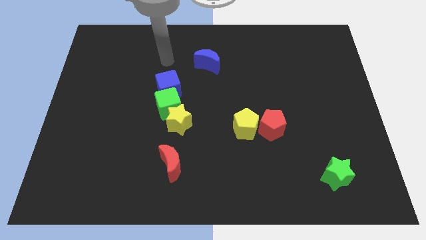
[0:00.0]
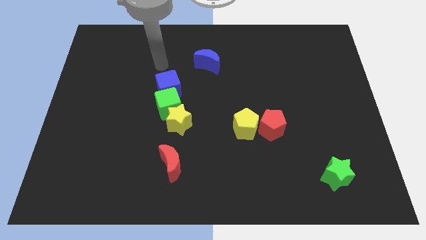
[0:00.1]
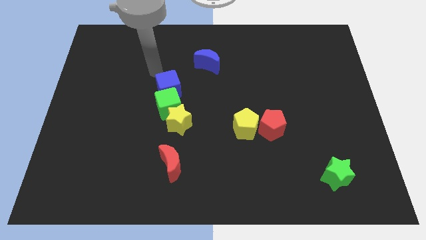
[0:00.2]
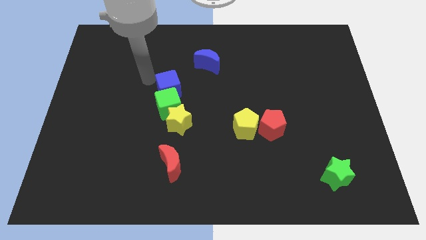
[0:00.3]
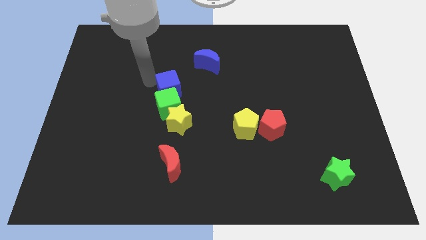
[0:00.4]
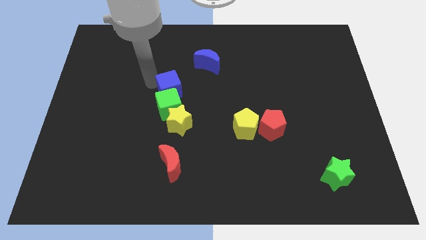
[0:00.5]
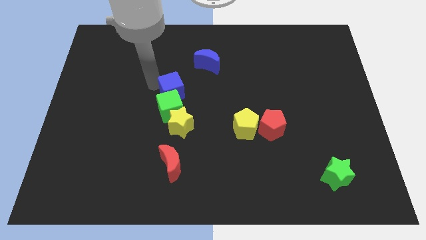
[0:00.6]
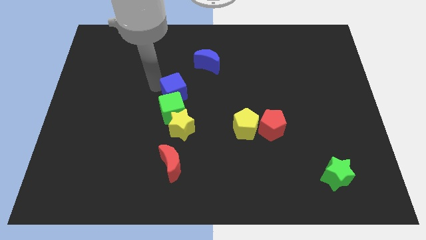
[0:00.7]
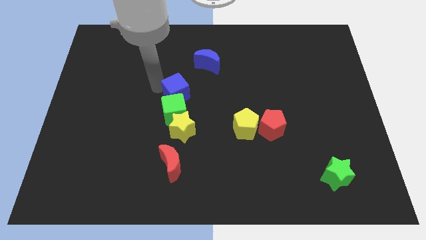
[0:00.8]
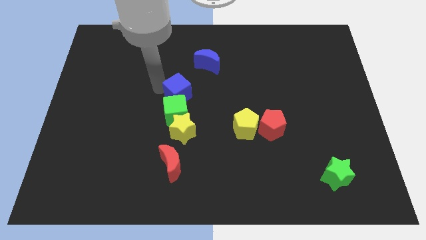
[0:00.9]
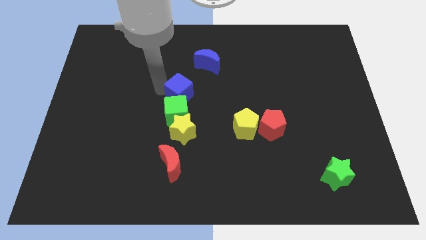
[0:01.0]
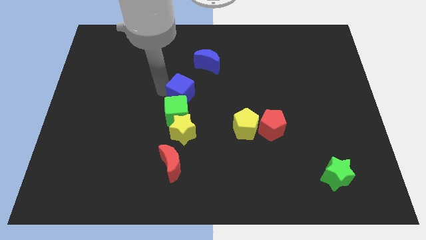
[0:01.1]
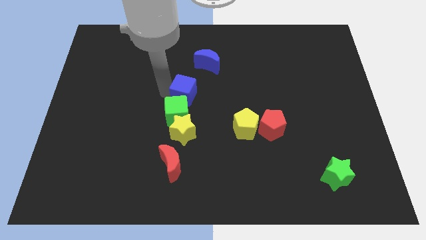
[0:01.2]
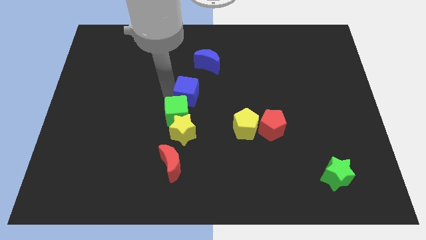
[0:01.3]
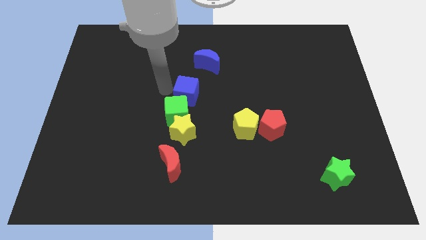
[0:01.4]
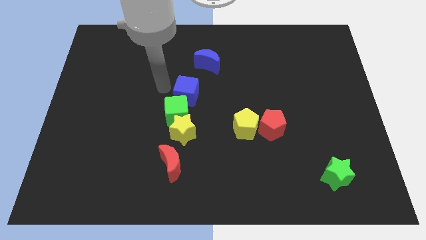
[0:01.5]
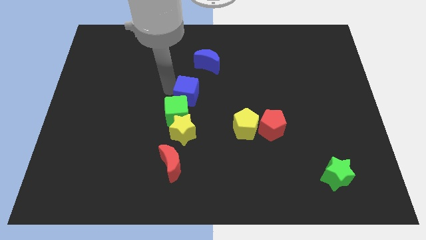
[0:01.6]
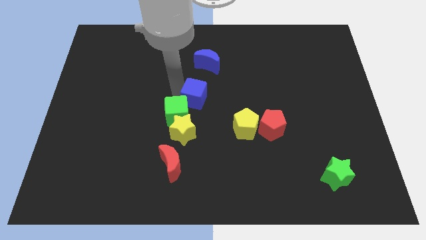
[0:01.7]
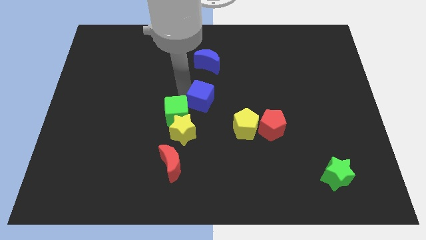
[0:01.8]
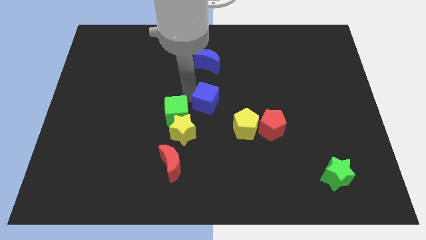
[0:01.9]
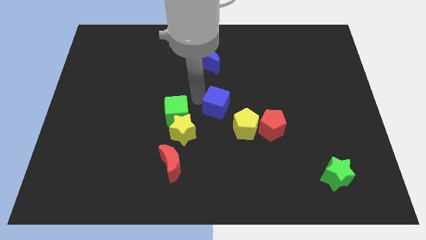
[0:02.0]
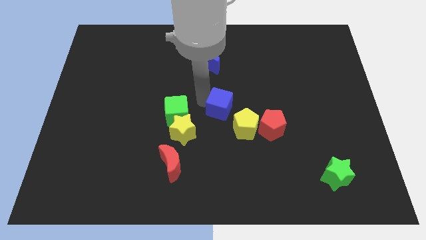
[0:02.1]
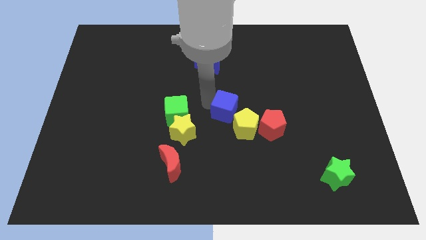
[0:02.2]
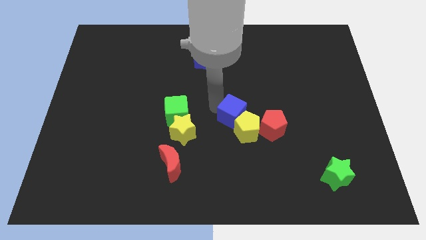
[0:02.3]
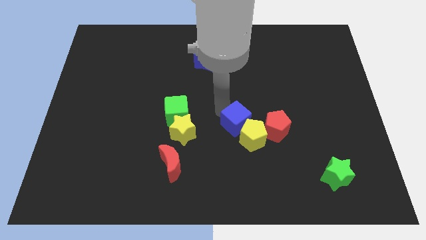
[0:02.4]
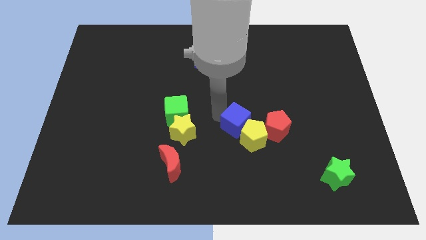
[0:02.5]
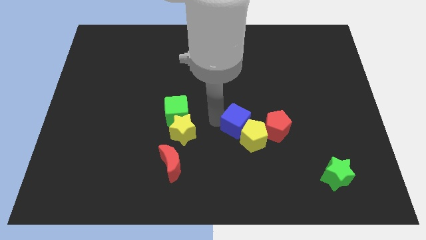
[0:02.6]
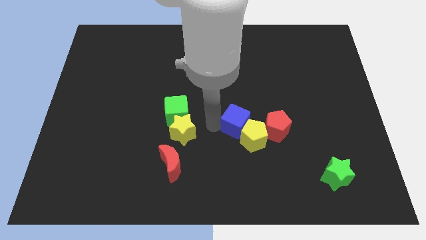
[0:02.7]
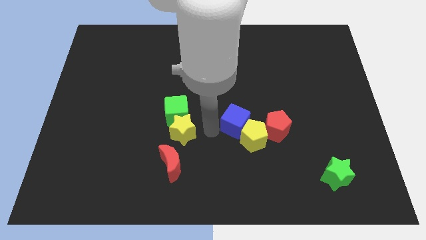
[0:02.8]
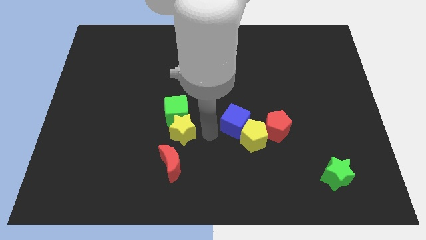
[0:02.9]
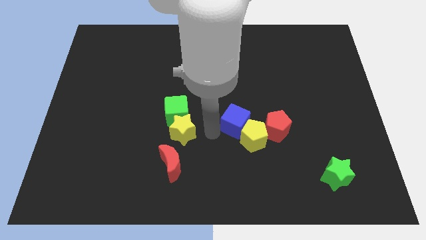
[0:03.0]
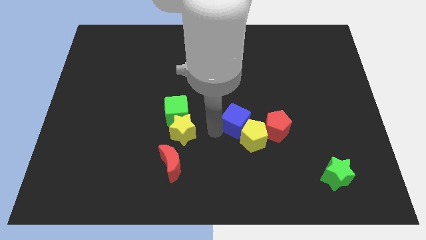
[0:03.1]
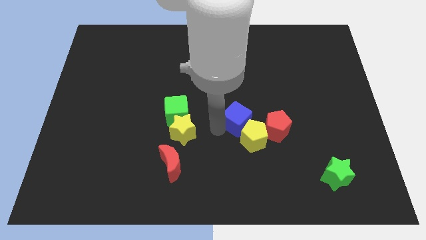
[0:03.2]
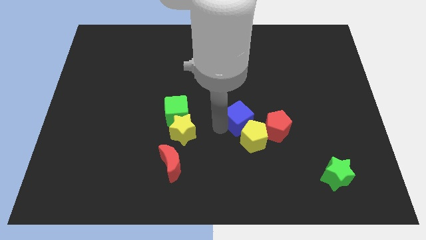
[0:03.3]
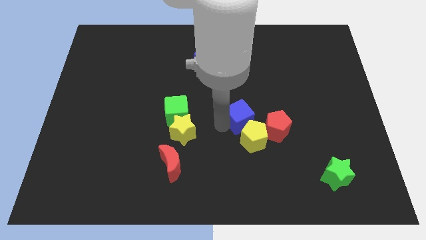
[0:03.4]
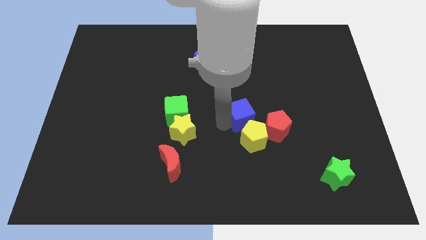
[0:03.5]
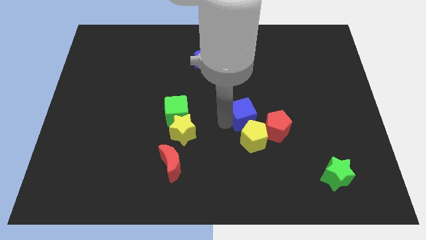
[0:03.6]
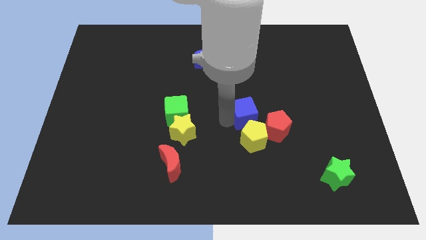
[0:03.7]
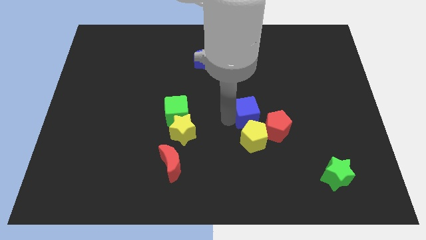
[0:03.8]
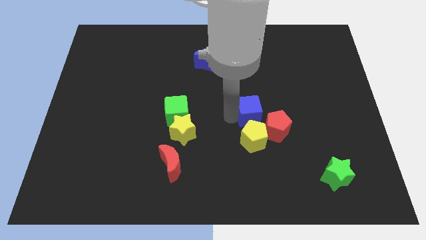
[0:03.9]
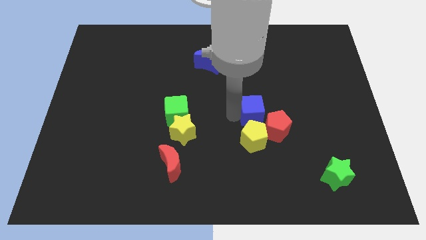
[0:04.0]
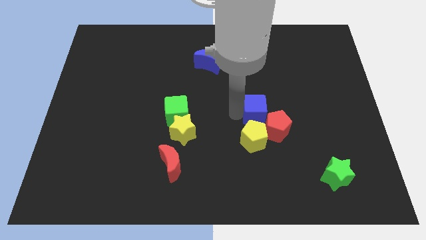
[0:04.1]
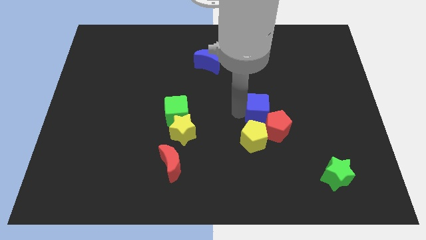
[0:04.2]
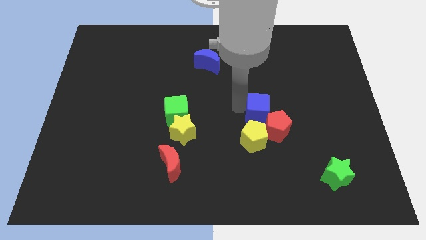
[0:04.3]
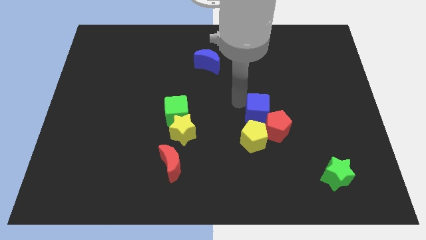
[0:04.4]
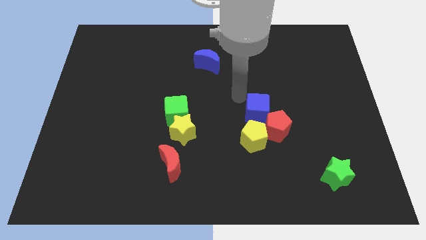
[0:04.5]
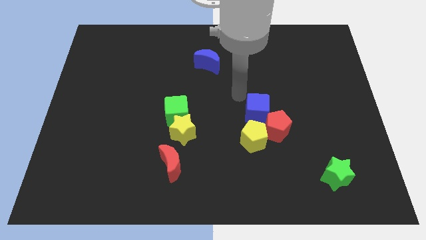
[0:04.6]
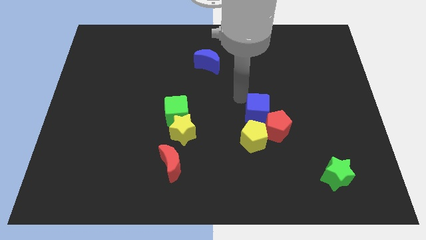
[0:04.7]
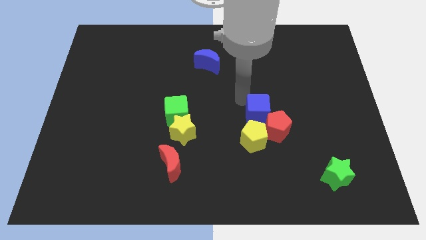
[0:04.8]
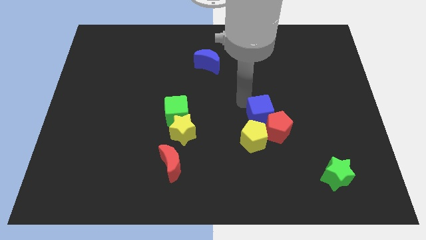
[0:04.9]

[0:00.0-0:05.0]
put the blue cube to the red pentagon

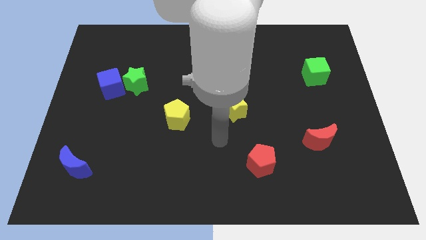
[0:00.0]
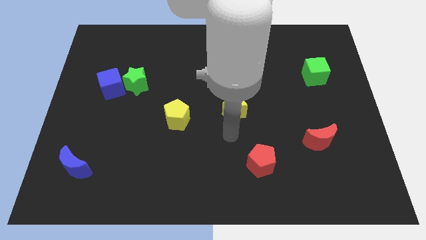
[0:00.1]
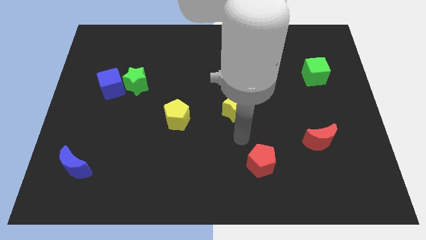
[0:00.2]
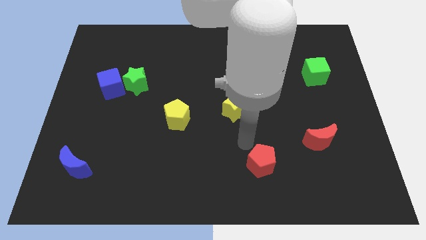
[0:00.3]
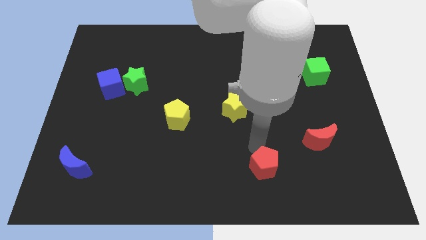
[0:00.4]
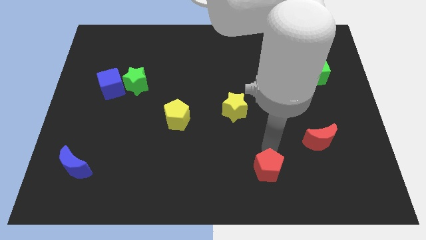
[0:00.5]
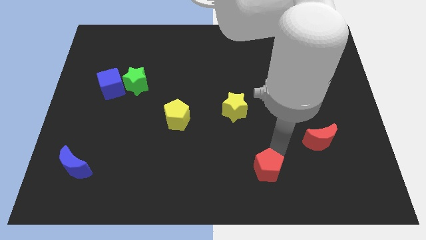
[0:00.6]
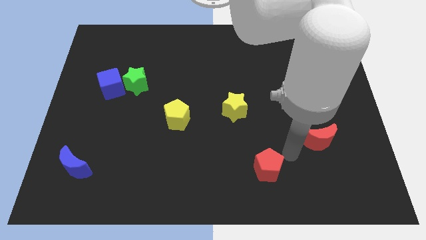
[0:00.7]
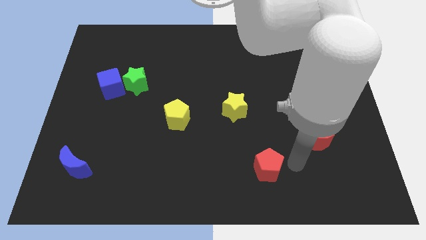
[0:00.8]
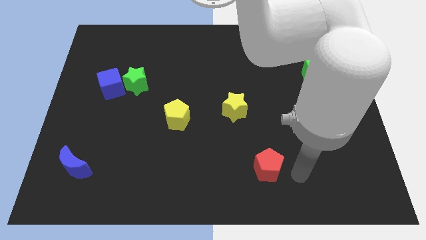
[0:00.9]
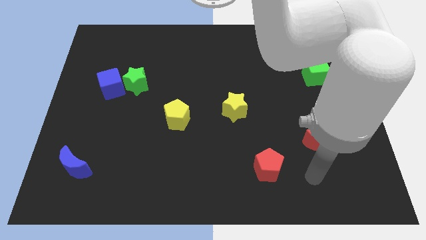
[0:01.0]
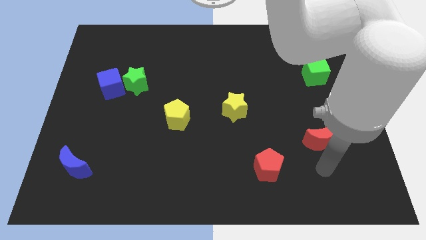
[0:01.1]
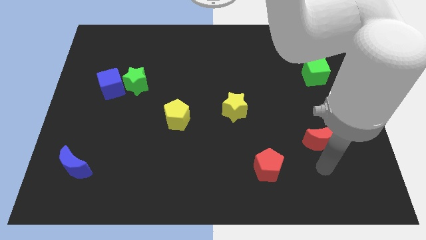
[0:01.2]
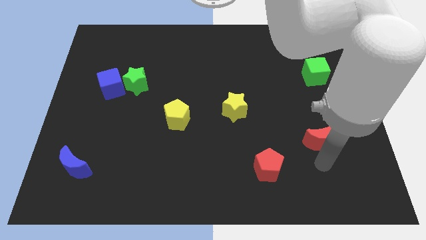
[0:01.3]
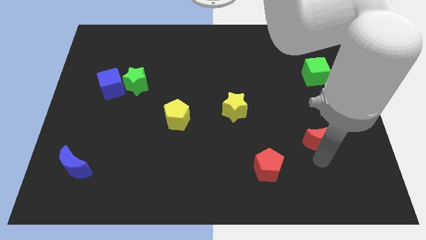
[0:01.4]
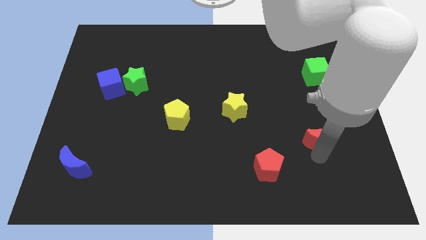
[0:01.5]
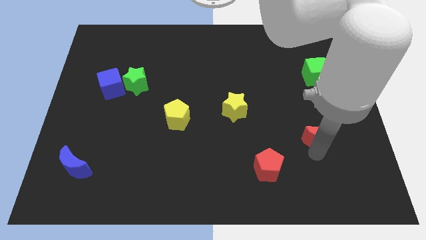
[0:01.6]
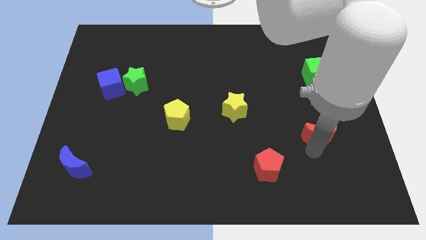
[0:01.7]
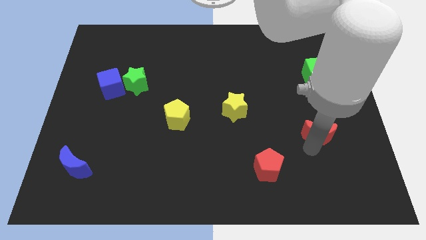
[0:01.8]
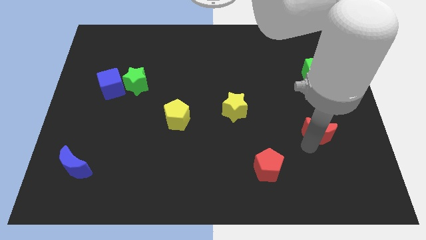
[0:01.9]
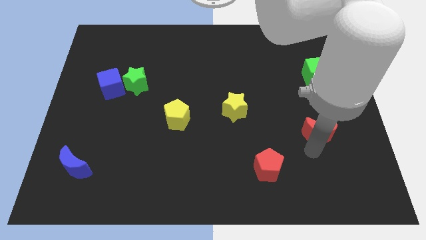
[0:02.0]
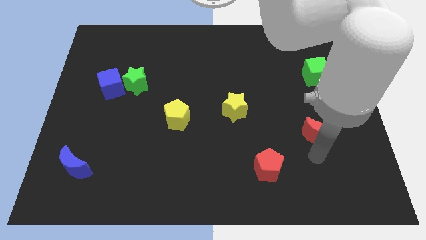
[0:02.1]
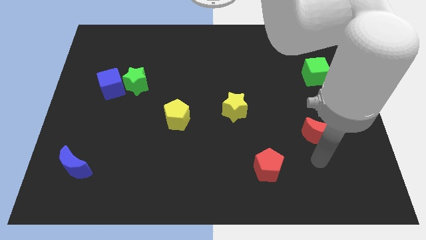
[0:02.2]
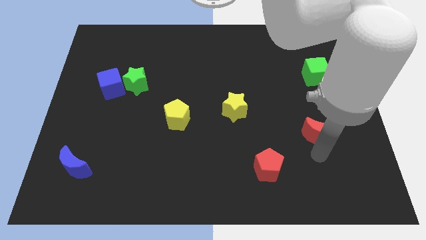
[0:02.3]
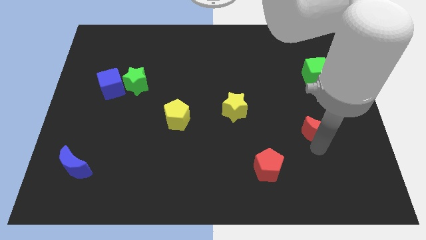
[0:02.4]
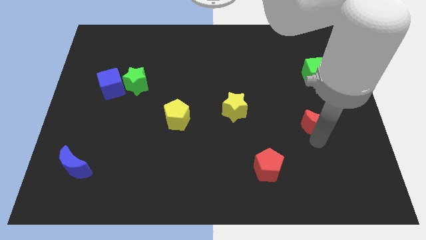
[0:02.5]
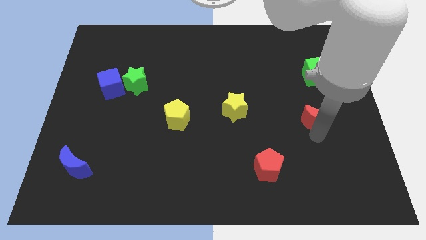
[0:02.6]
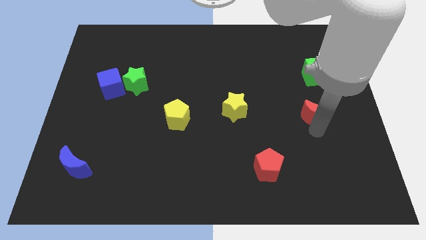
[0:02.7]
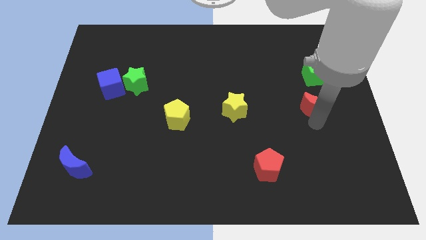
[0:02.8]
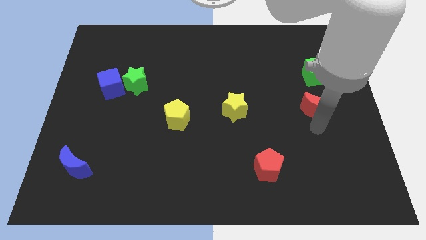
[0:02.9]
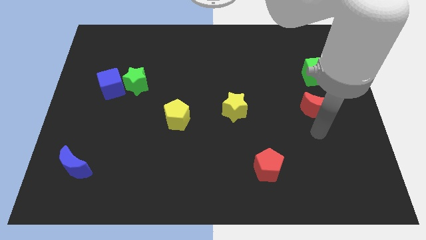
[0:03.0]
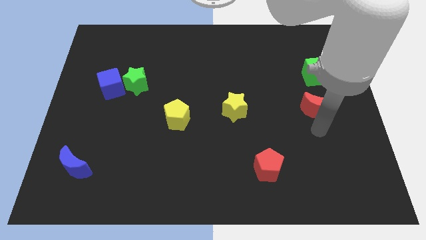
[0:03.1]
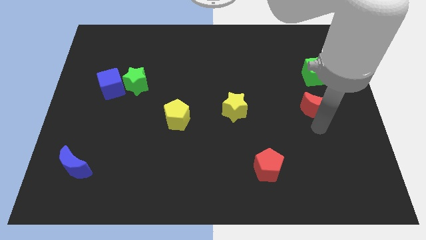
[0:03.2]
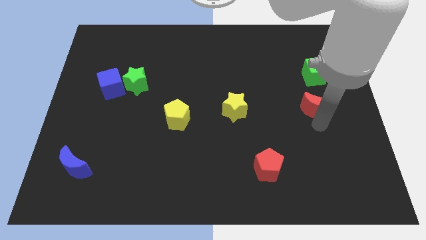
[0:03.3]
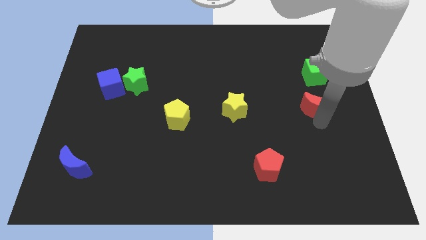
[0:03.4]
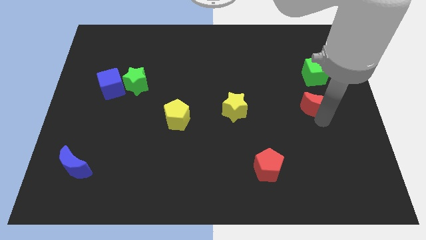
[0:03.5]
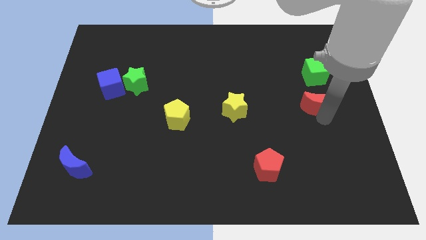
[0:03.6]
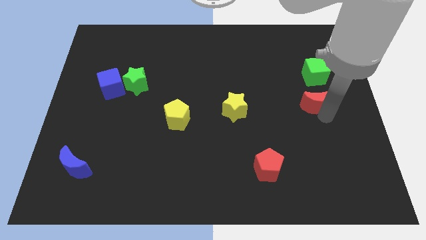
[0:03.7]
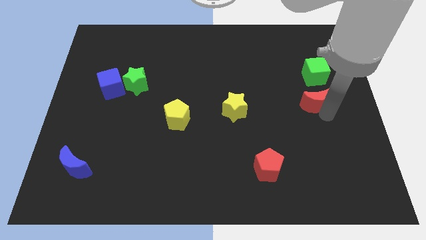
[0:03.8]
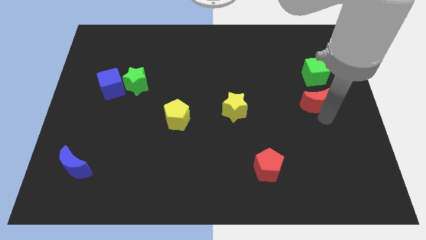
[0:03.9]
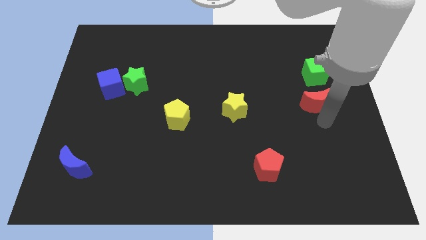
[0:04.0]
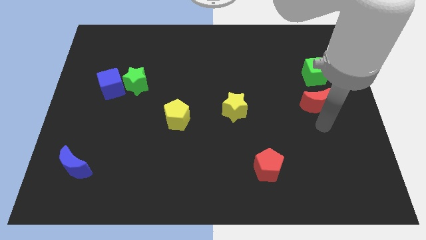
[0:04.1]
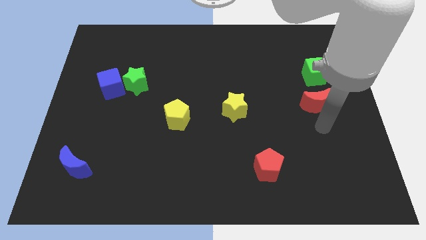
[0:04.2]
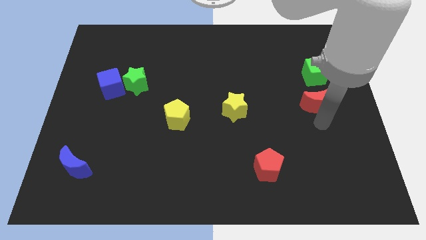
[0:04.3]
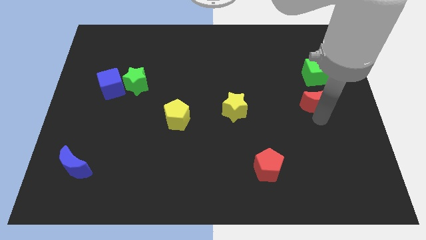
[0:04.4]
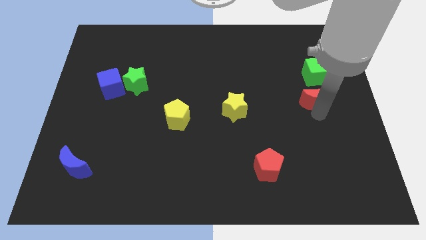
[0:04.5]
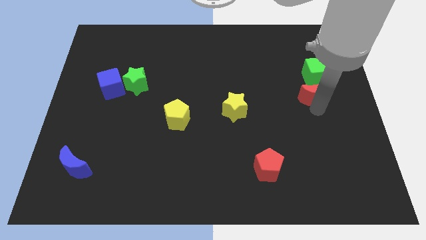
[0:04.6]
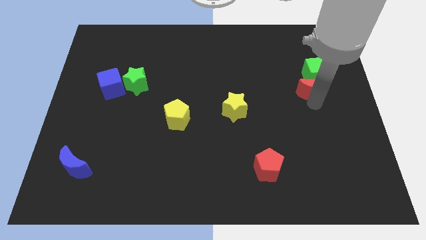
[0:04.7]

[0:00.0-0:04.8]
put the red moon close to the green cube
